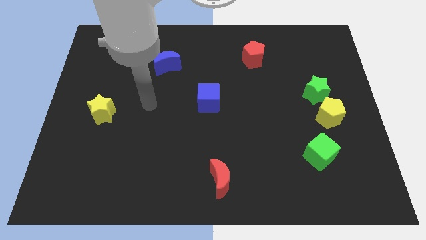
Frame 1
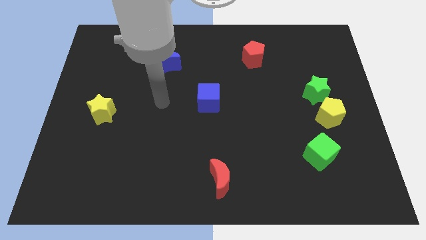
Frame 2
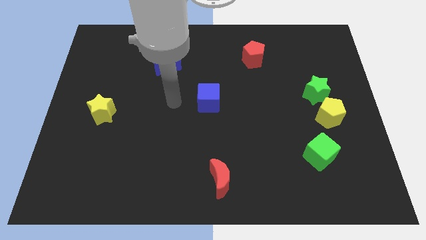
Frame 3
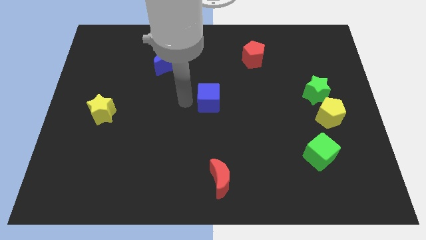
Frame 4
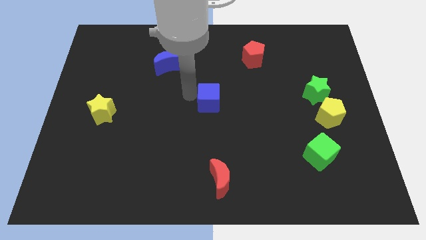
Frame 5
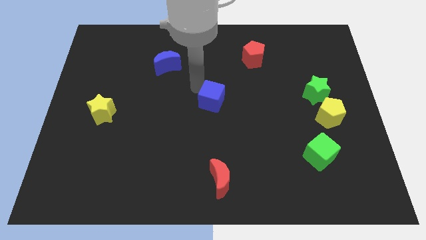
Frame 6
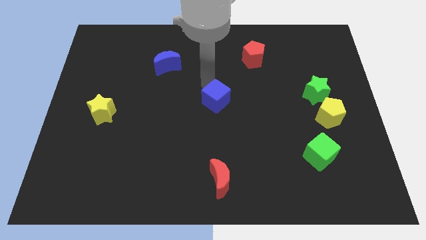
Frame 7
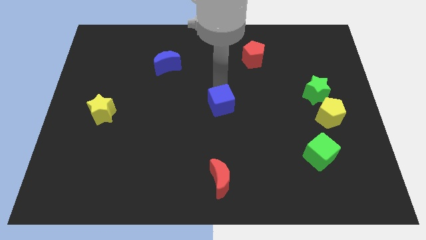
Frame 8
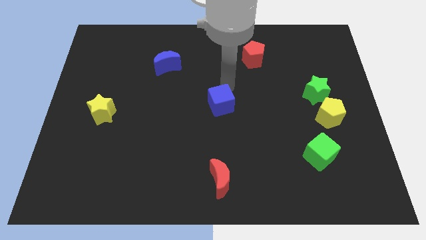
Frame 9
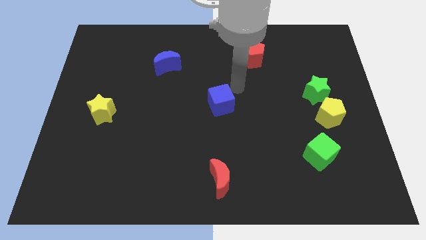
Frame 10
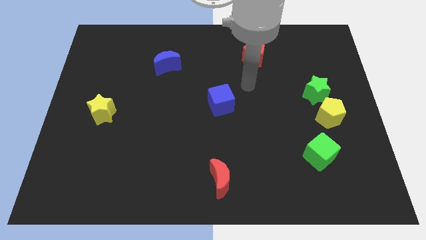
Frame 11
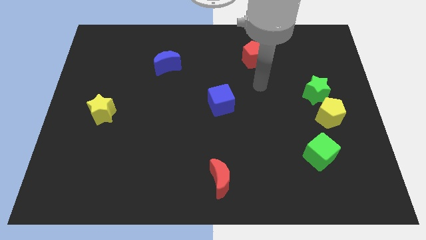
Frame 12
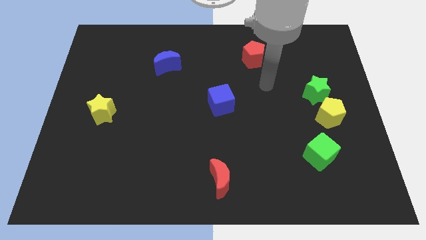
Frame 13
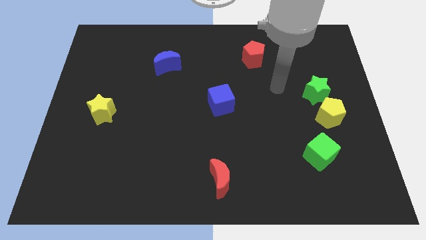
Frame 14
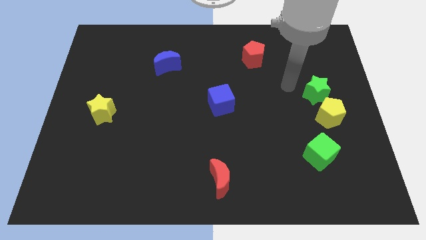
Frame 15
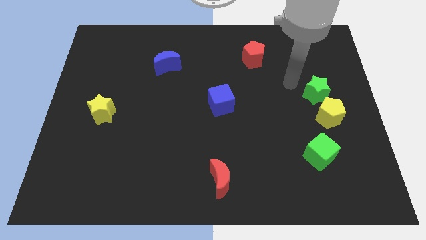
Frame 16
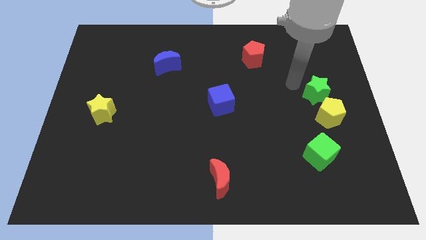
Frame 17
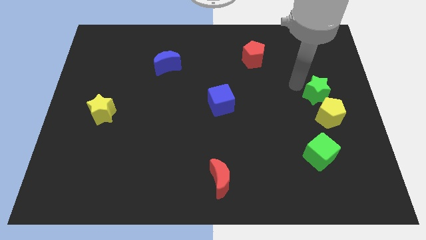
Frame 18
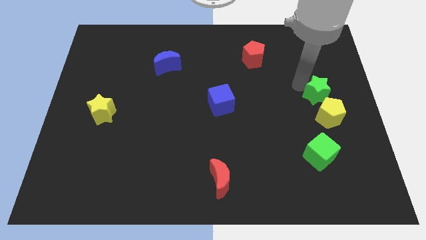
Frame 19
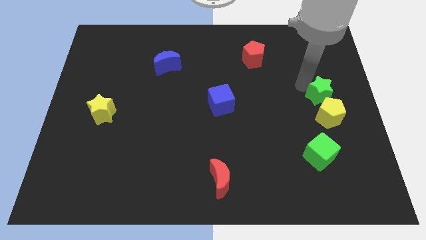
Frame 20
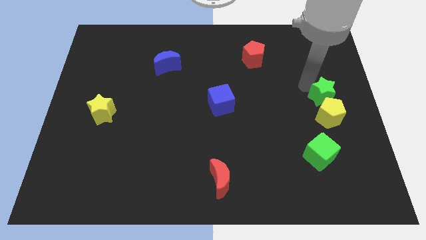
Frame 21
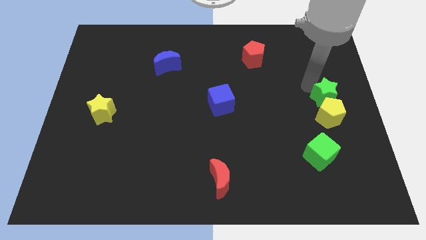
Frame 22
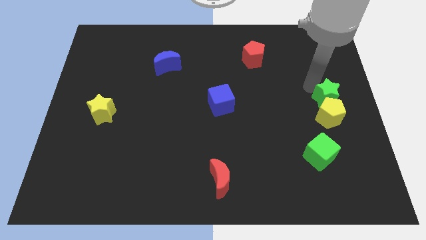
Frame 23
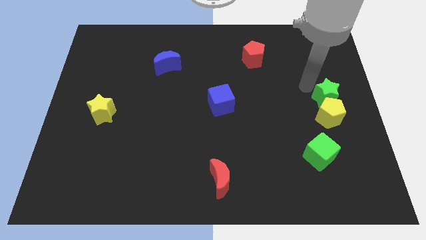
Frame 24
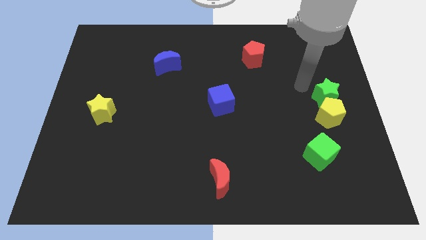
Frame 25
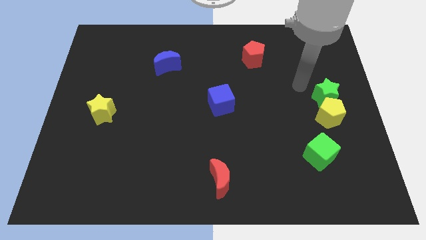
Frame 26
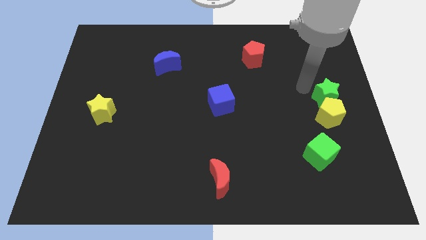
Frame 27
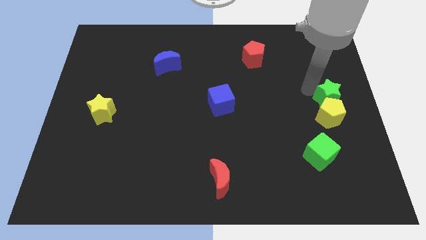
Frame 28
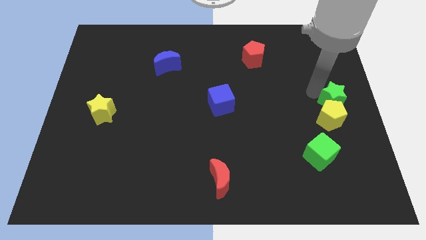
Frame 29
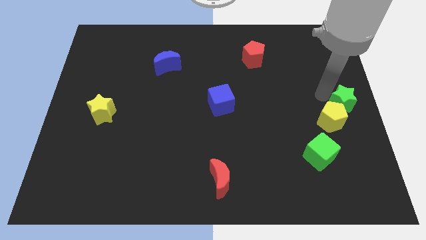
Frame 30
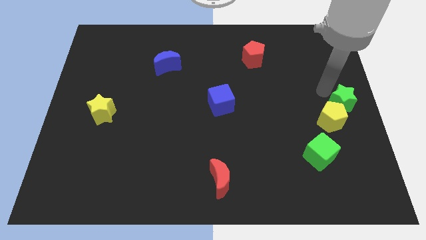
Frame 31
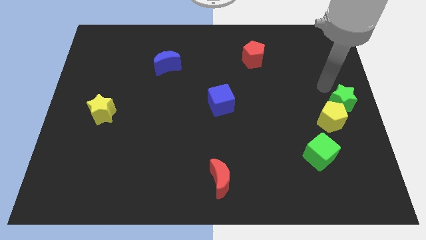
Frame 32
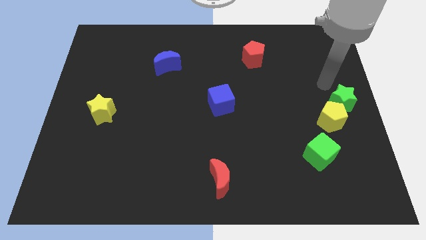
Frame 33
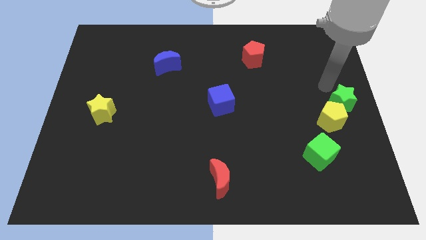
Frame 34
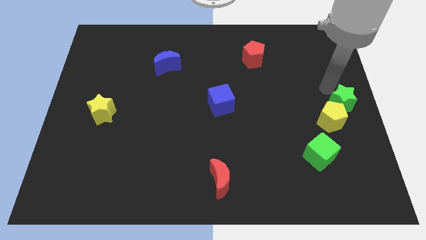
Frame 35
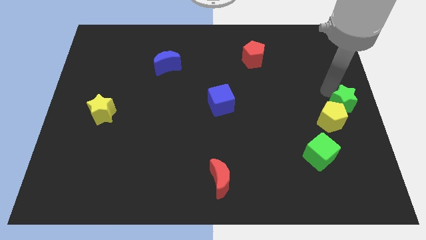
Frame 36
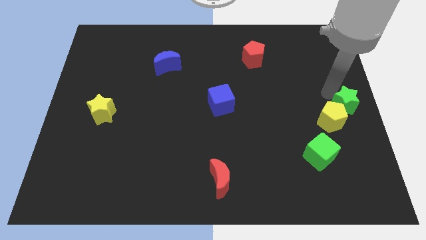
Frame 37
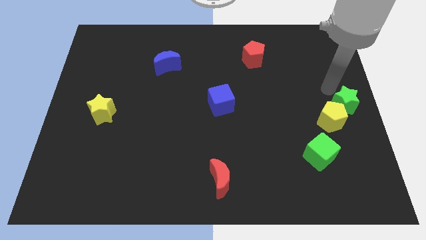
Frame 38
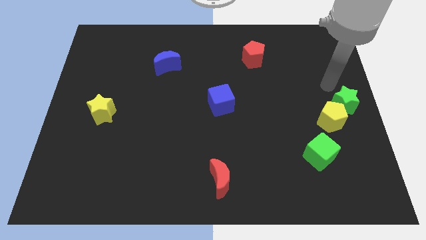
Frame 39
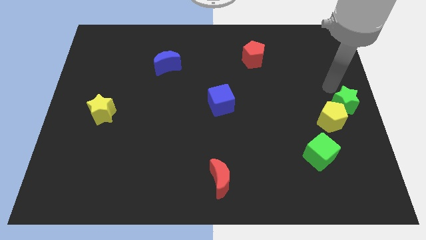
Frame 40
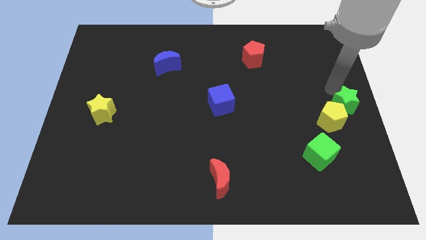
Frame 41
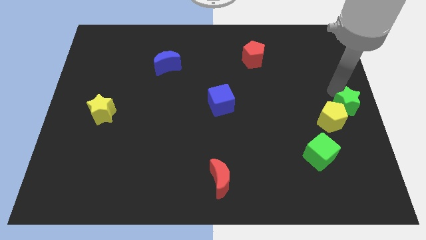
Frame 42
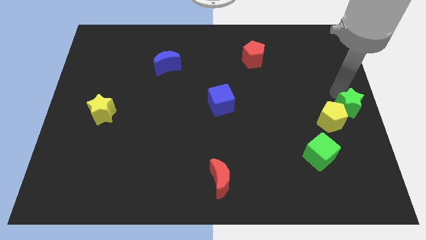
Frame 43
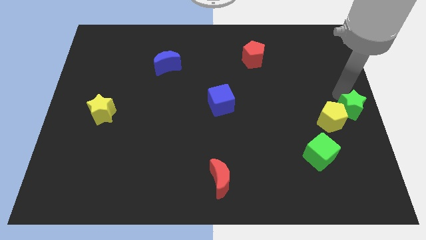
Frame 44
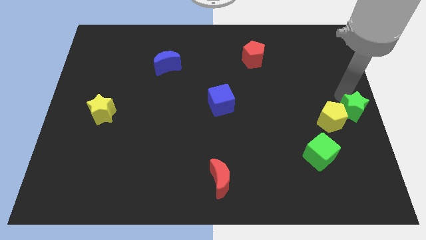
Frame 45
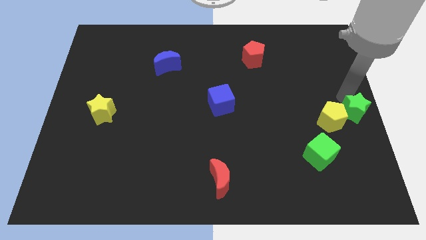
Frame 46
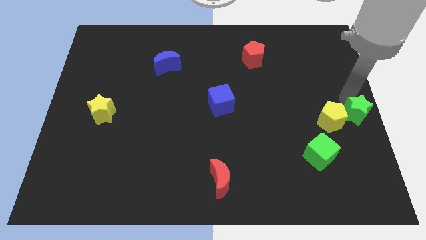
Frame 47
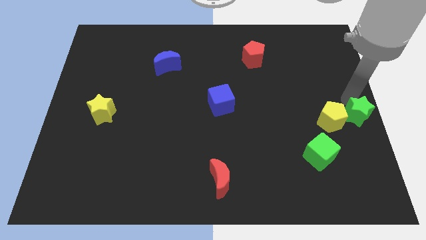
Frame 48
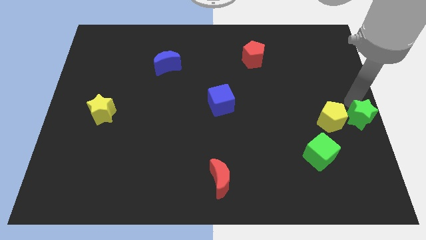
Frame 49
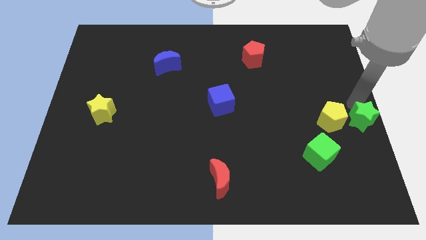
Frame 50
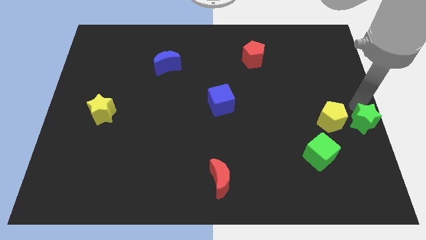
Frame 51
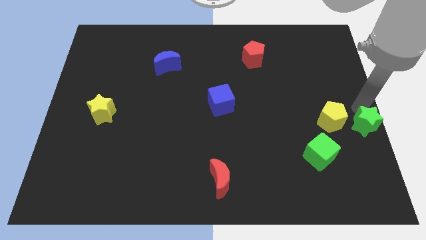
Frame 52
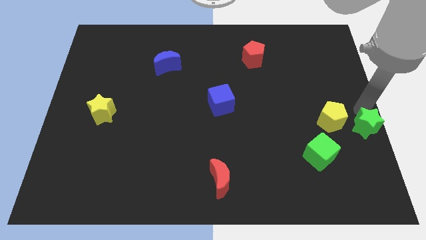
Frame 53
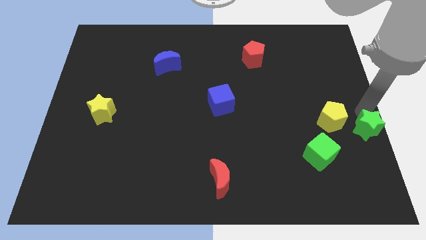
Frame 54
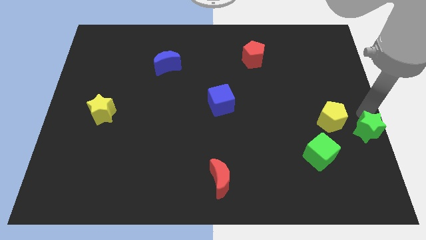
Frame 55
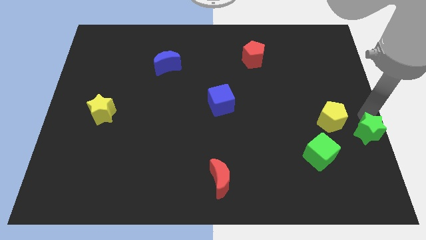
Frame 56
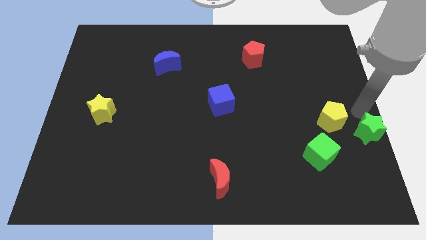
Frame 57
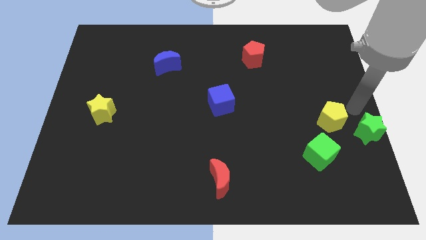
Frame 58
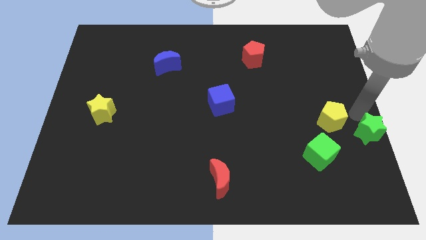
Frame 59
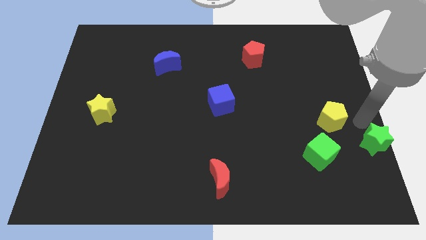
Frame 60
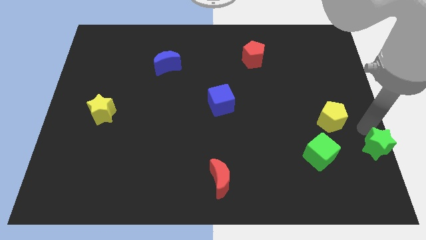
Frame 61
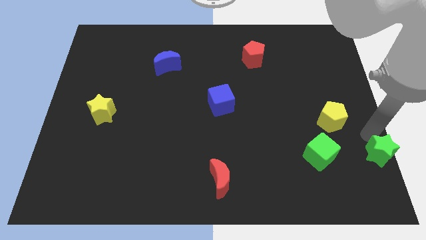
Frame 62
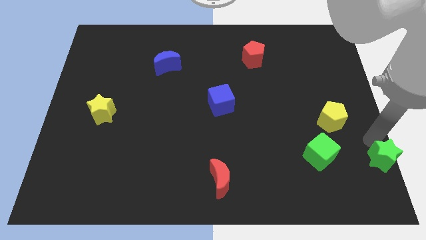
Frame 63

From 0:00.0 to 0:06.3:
move the green star to the bottom right

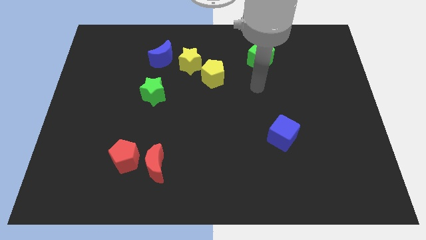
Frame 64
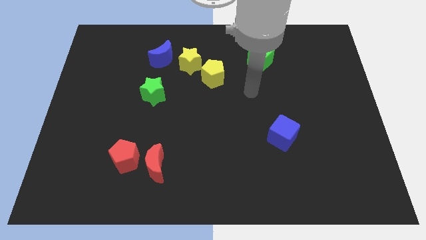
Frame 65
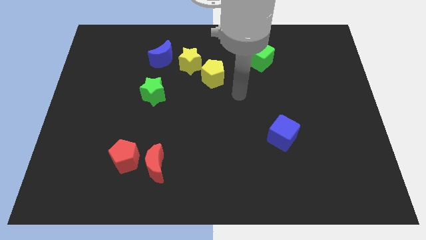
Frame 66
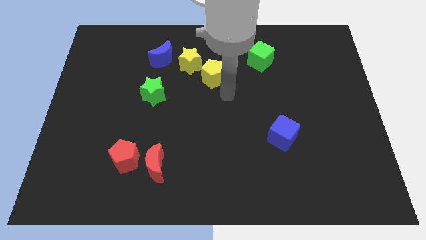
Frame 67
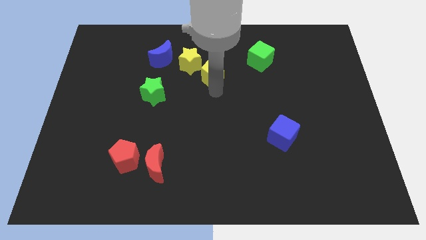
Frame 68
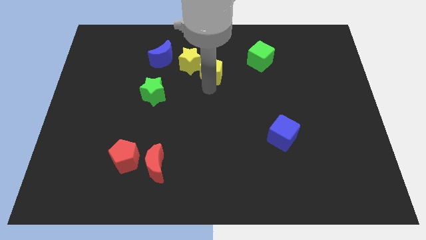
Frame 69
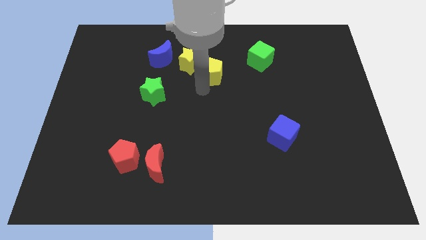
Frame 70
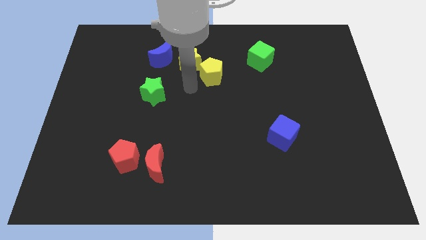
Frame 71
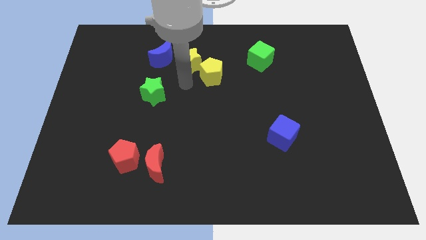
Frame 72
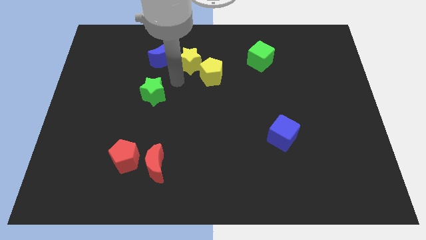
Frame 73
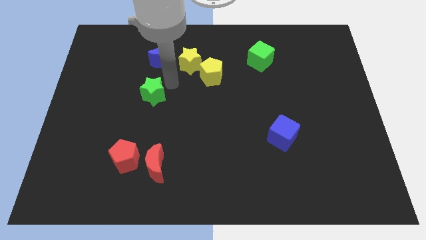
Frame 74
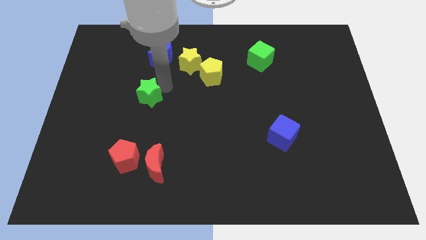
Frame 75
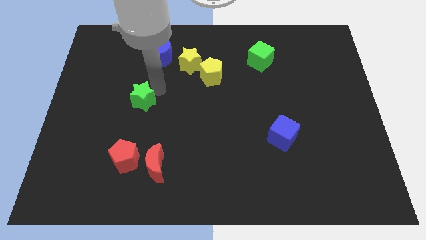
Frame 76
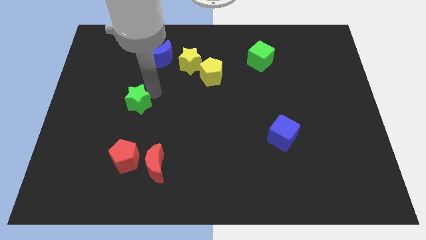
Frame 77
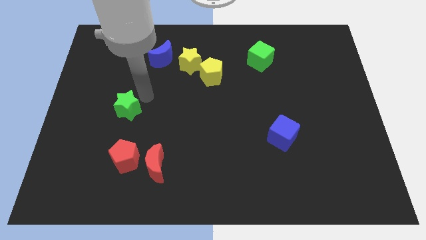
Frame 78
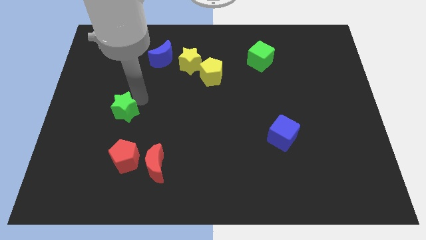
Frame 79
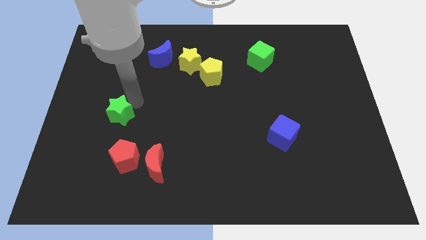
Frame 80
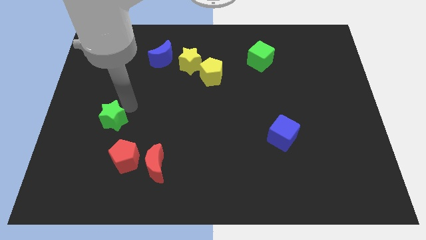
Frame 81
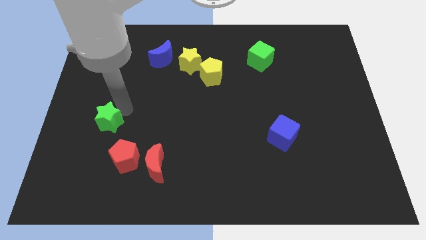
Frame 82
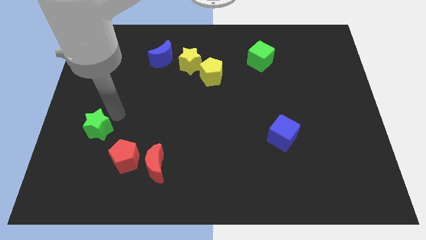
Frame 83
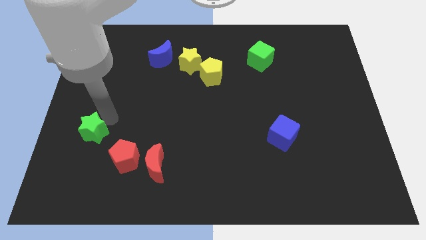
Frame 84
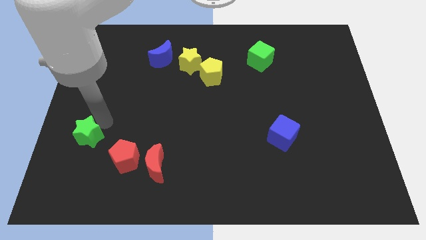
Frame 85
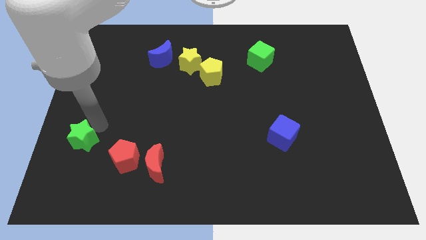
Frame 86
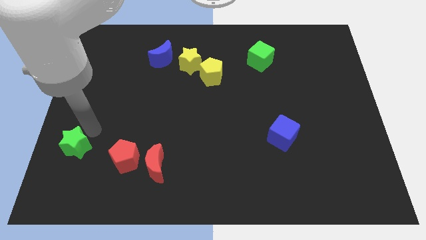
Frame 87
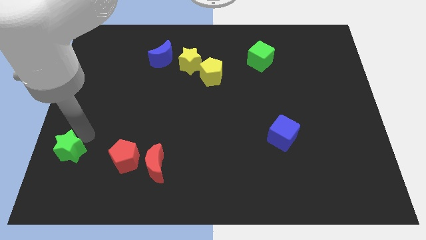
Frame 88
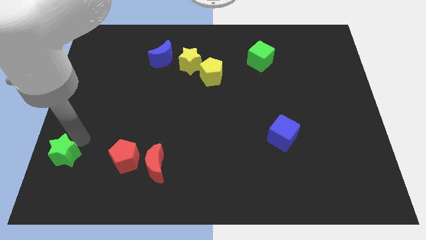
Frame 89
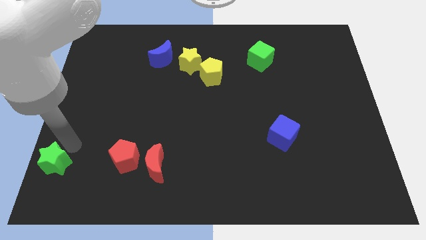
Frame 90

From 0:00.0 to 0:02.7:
move the green star to the bottom left of the board
